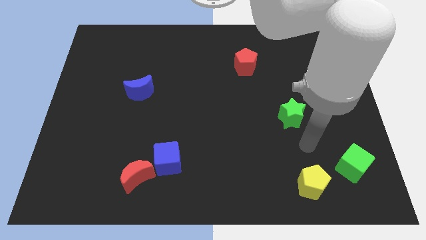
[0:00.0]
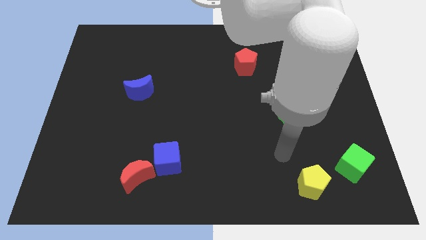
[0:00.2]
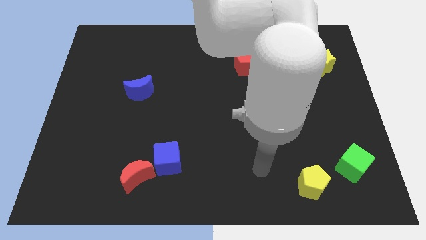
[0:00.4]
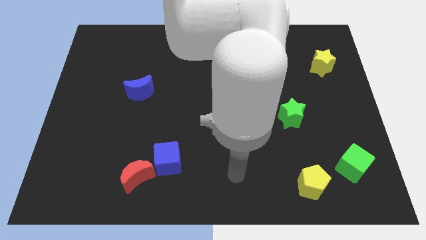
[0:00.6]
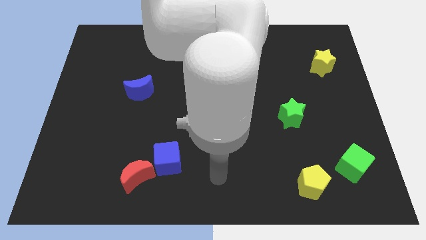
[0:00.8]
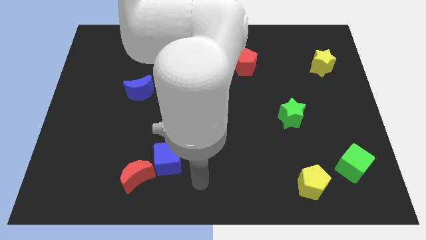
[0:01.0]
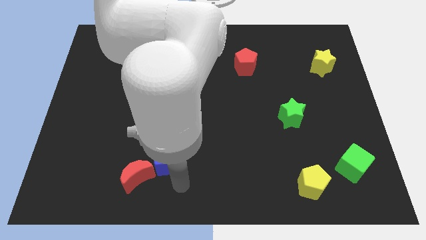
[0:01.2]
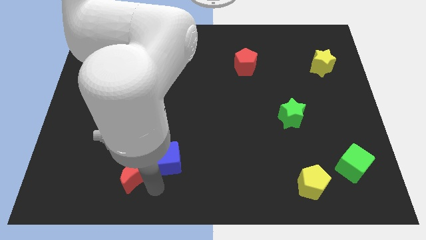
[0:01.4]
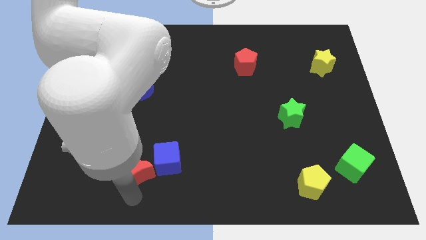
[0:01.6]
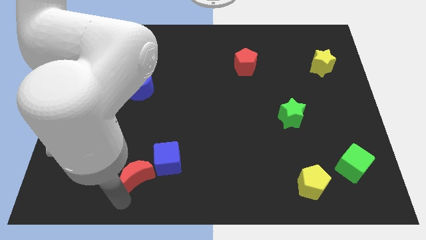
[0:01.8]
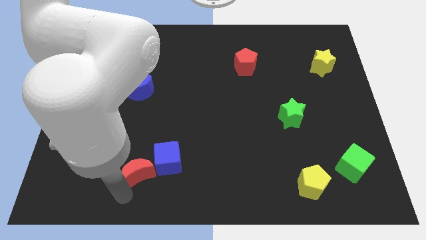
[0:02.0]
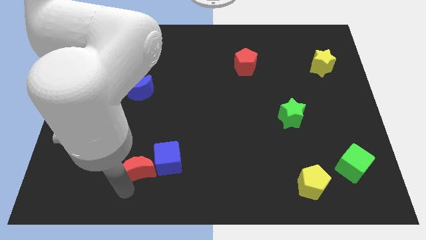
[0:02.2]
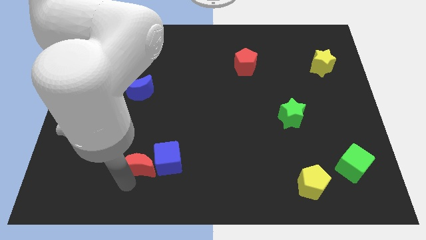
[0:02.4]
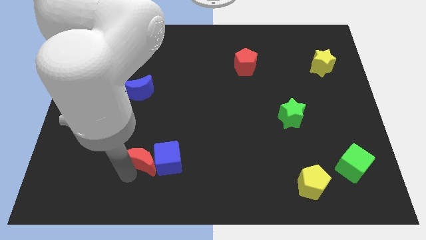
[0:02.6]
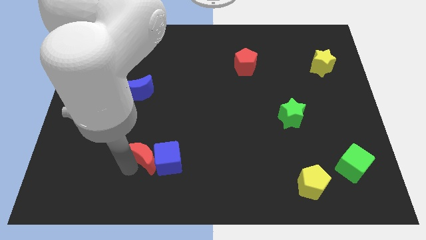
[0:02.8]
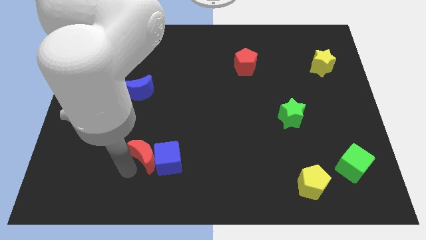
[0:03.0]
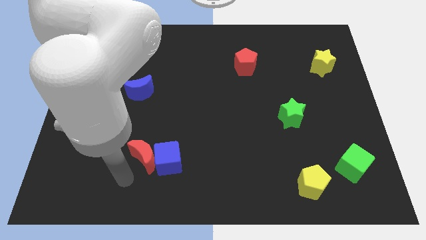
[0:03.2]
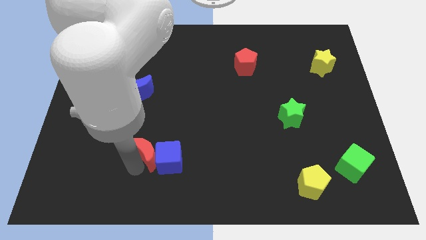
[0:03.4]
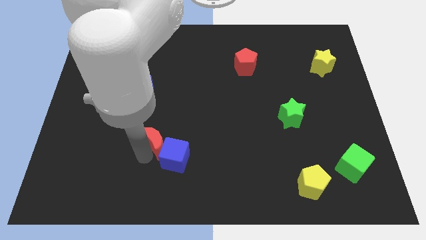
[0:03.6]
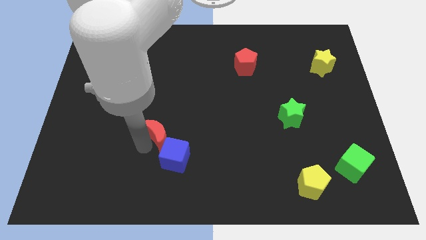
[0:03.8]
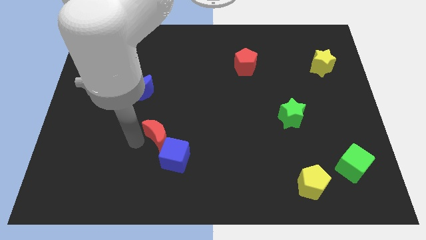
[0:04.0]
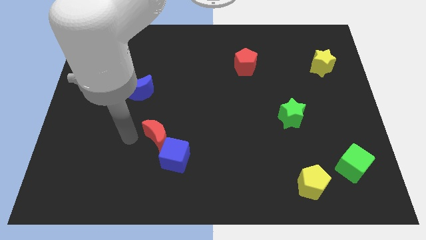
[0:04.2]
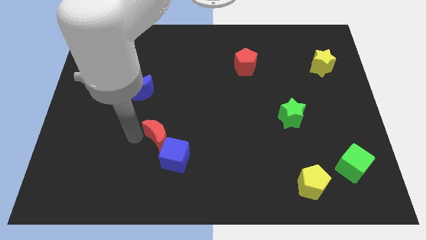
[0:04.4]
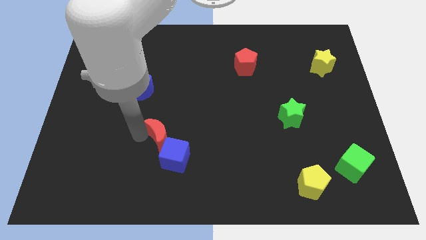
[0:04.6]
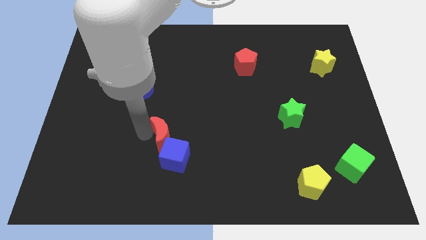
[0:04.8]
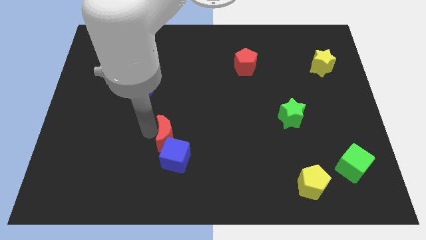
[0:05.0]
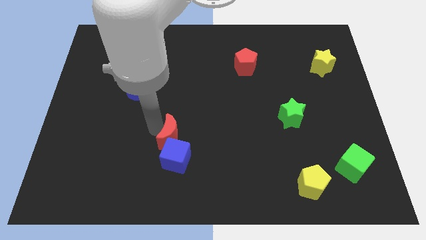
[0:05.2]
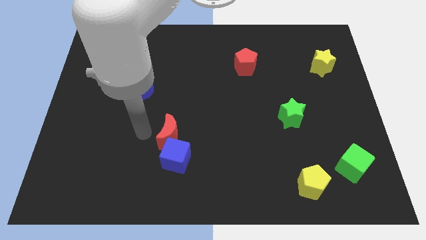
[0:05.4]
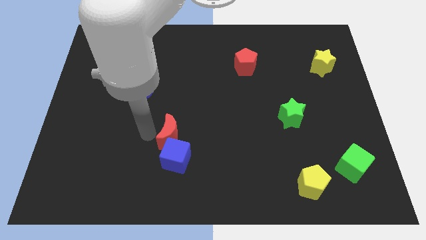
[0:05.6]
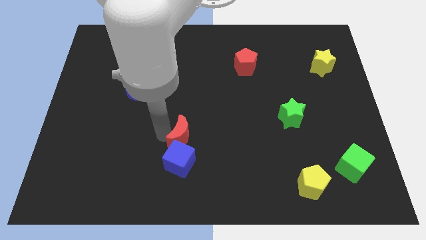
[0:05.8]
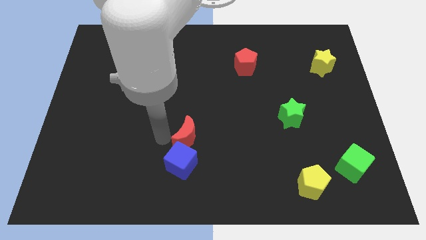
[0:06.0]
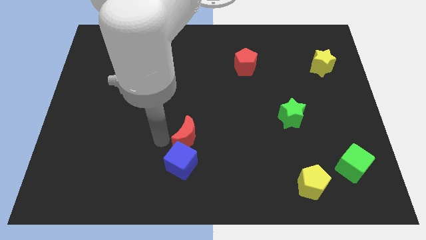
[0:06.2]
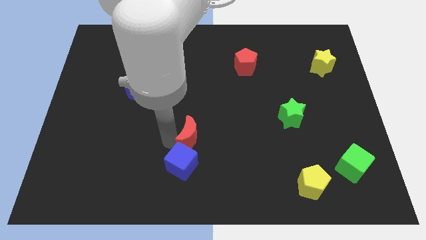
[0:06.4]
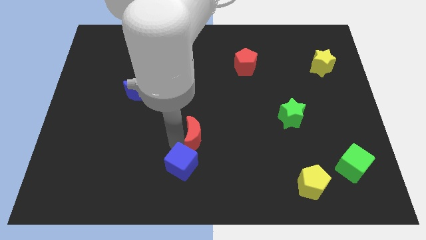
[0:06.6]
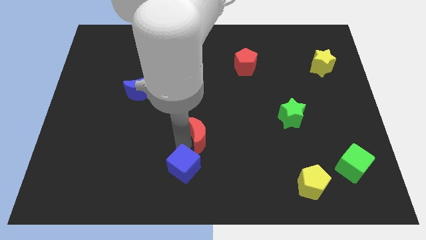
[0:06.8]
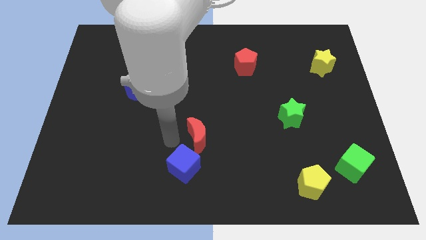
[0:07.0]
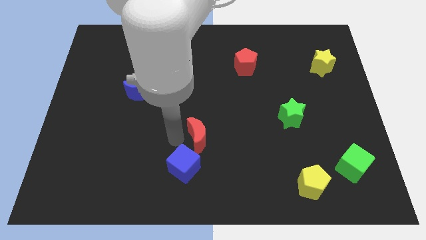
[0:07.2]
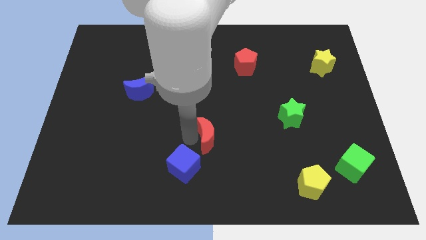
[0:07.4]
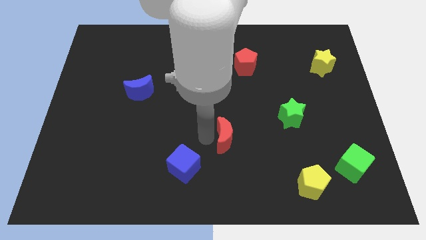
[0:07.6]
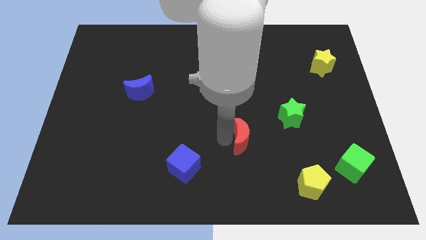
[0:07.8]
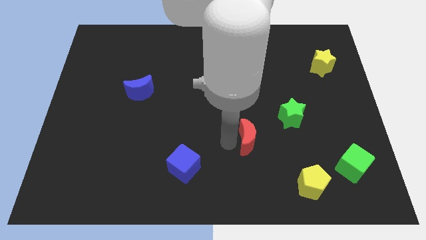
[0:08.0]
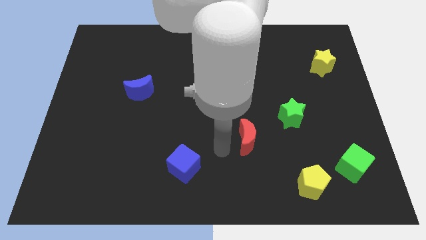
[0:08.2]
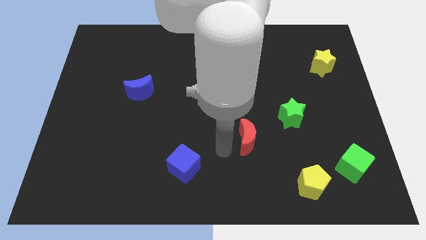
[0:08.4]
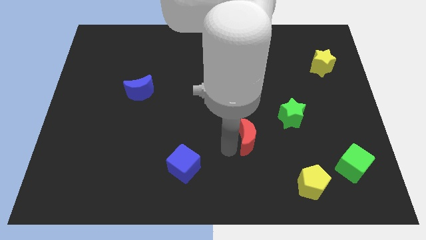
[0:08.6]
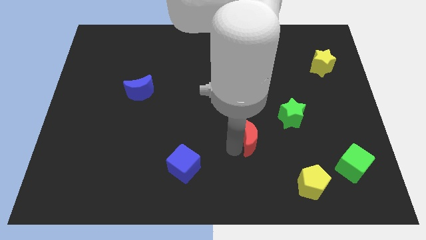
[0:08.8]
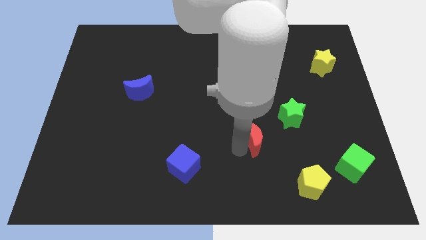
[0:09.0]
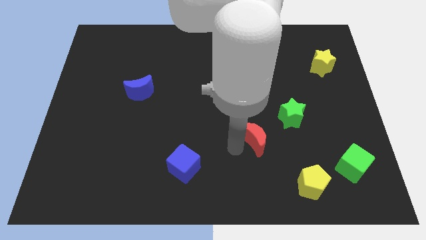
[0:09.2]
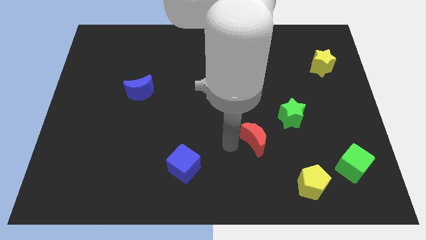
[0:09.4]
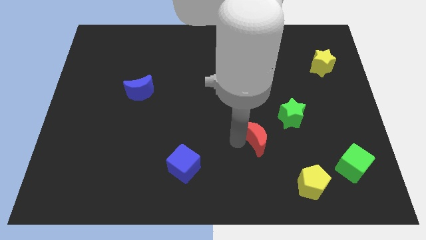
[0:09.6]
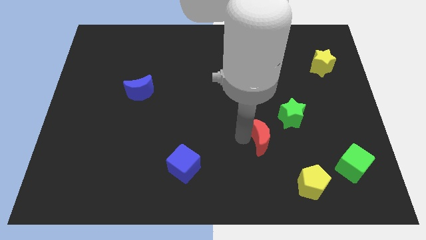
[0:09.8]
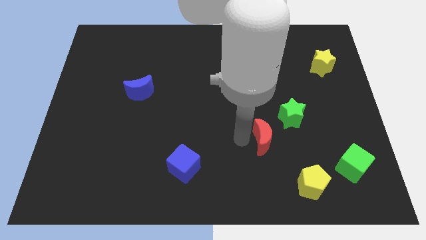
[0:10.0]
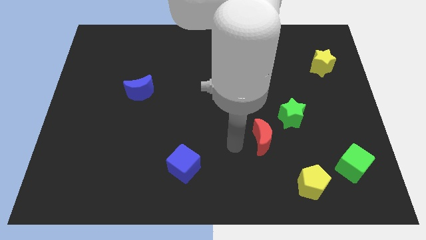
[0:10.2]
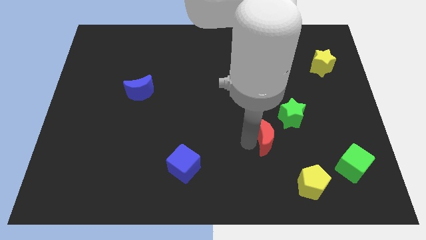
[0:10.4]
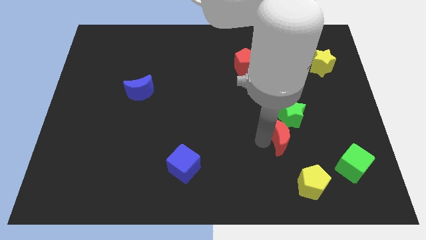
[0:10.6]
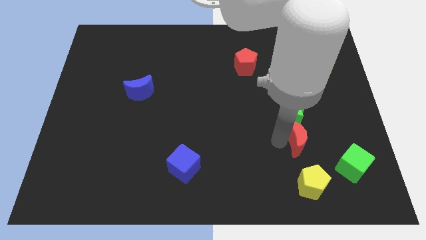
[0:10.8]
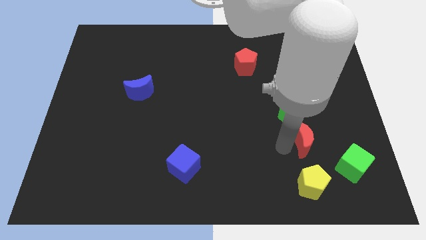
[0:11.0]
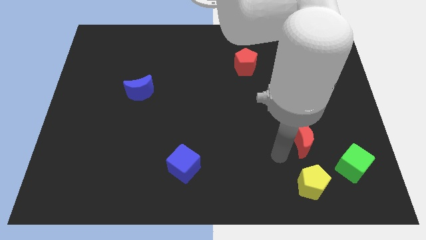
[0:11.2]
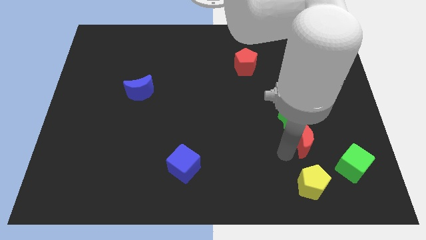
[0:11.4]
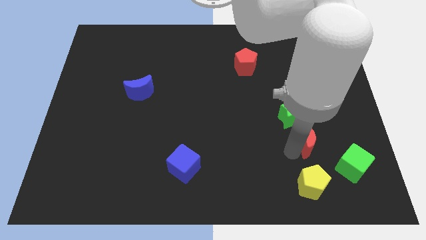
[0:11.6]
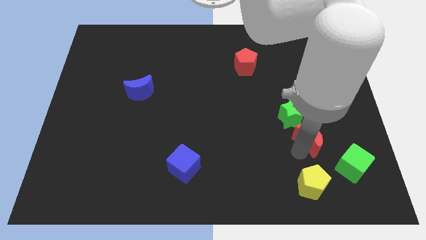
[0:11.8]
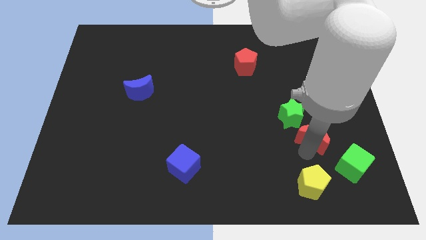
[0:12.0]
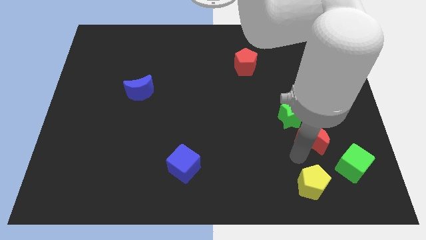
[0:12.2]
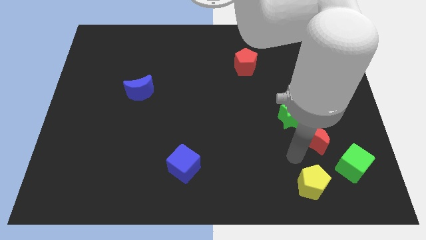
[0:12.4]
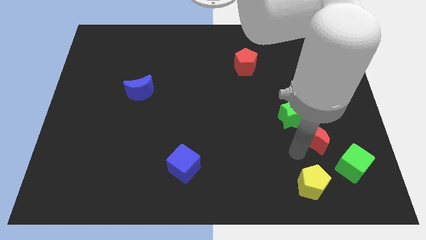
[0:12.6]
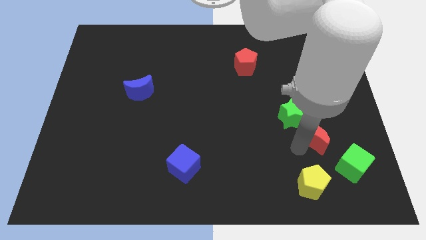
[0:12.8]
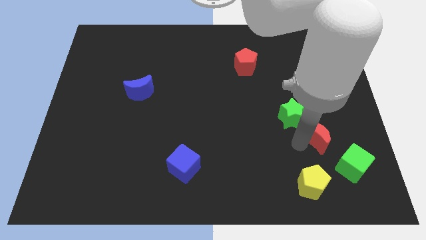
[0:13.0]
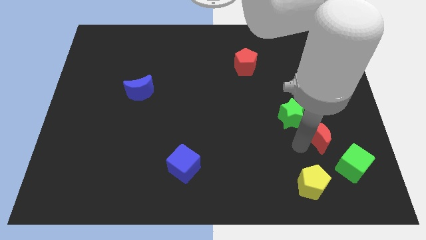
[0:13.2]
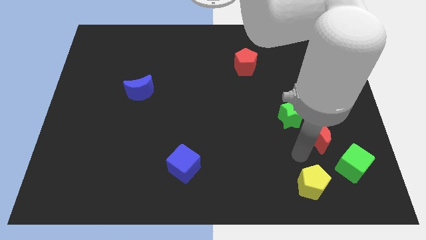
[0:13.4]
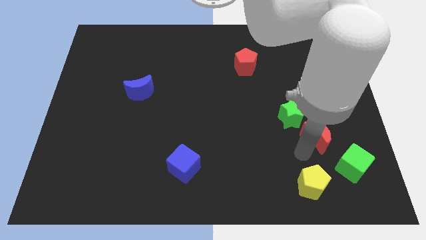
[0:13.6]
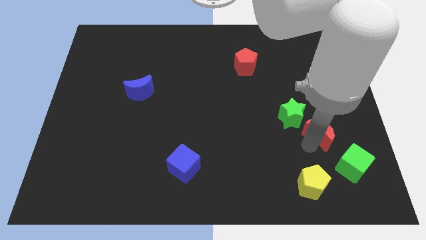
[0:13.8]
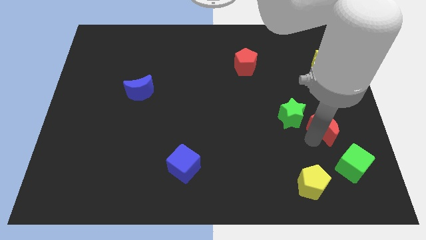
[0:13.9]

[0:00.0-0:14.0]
slide the red moon to the top side of the green cube

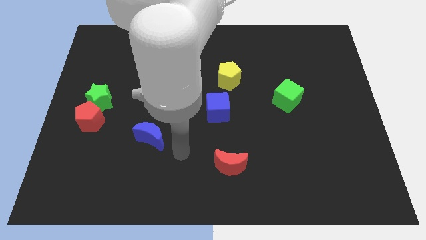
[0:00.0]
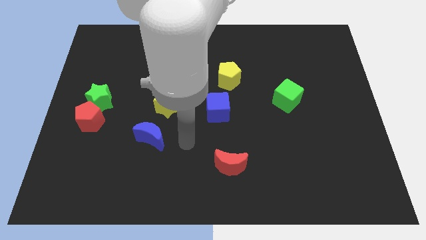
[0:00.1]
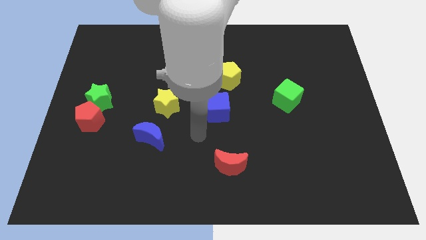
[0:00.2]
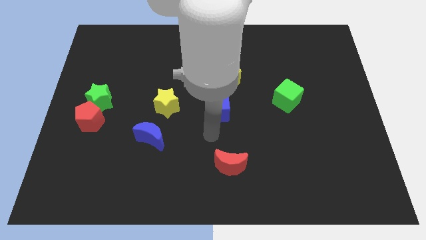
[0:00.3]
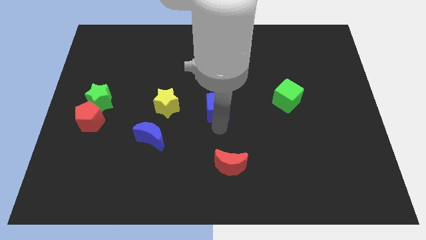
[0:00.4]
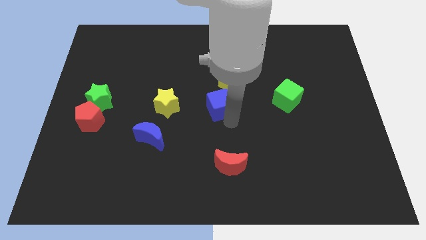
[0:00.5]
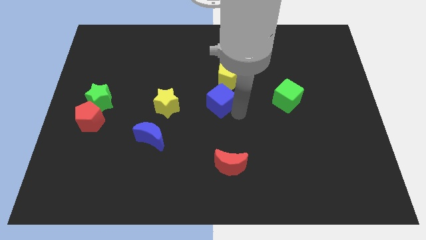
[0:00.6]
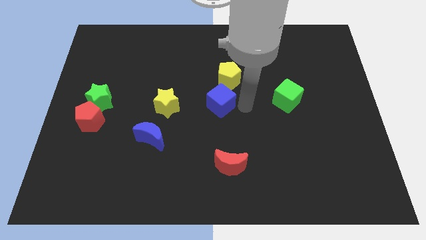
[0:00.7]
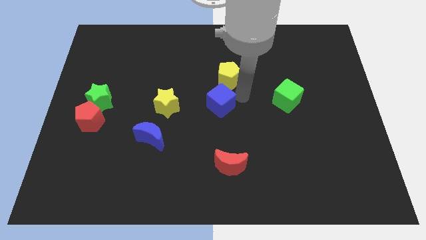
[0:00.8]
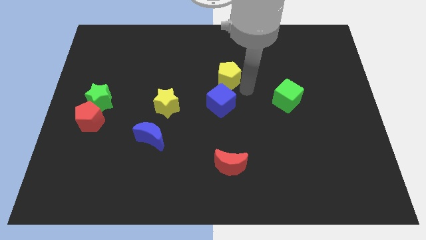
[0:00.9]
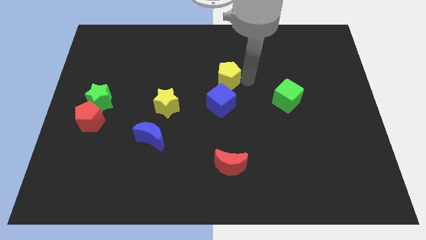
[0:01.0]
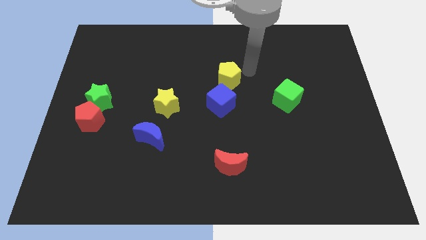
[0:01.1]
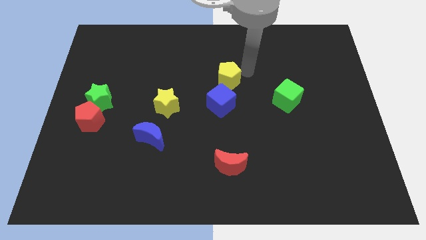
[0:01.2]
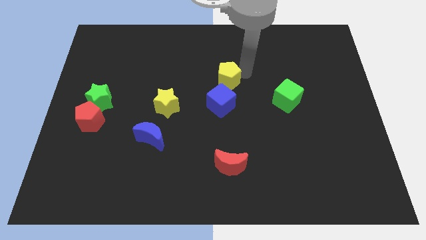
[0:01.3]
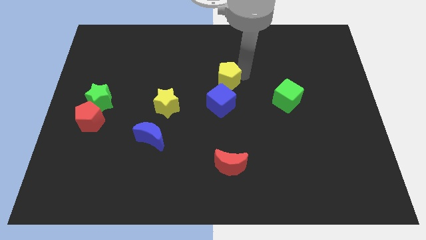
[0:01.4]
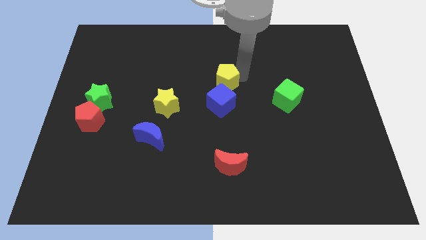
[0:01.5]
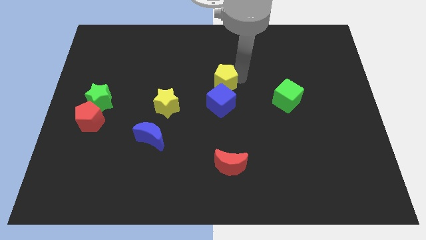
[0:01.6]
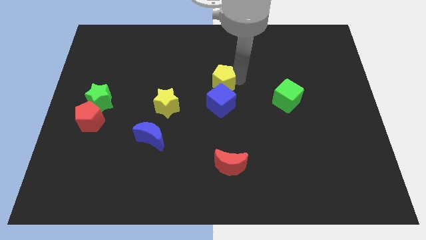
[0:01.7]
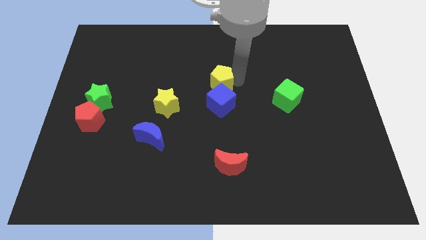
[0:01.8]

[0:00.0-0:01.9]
slide the yellow pentagon to the top left of the blue cube
